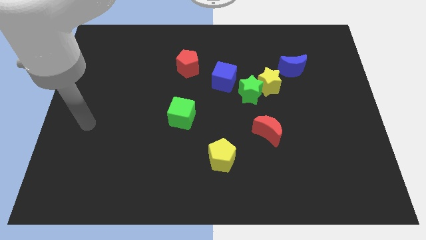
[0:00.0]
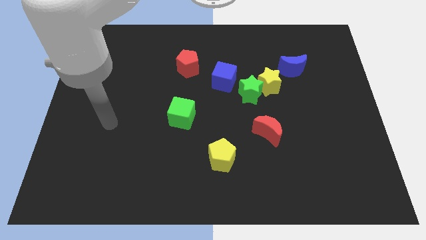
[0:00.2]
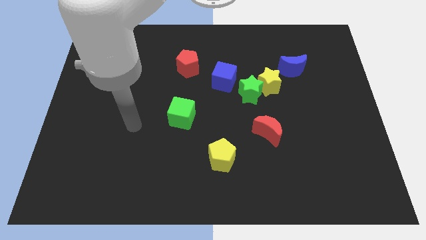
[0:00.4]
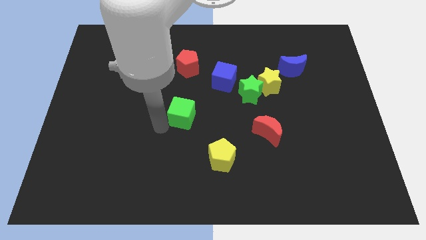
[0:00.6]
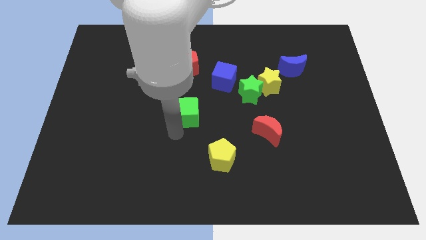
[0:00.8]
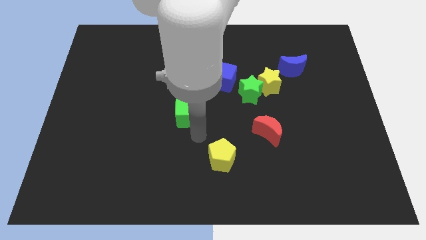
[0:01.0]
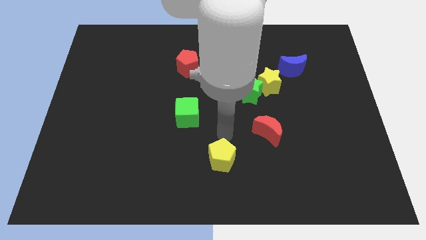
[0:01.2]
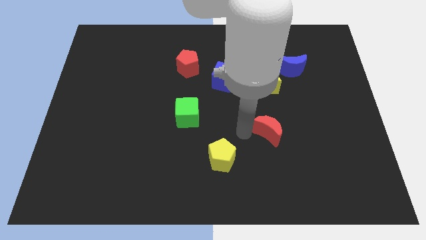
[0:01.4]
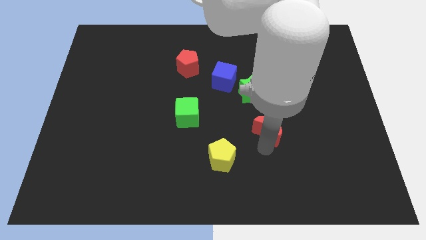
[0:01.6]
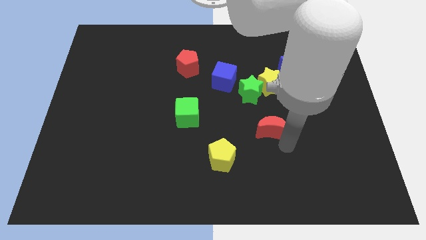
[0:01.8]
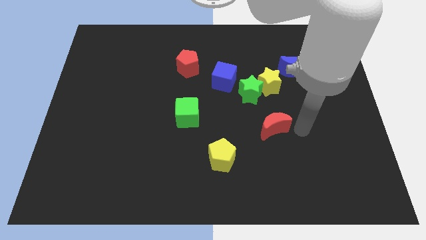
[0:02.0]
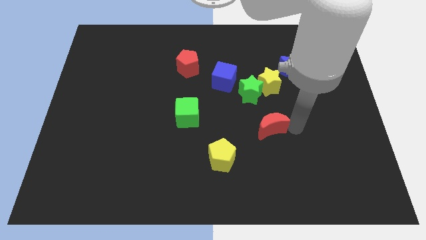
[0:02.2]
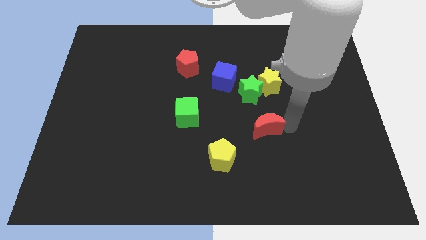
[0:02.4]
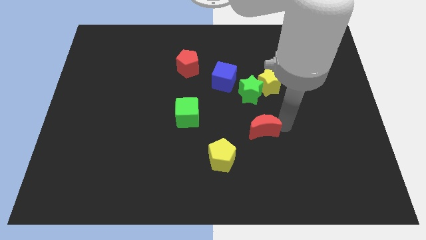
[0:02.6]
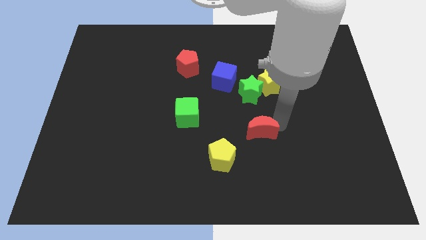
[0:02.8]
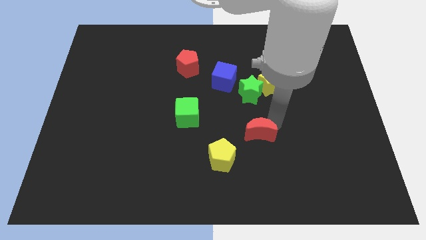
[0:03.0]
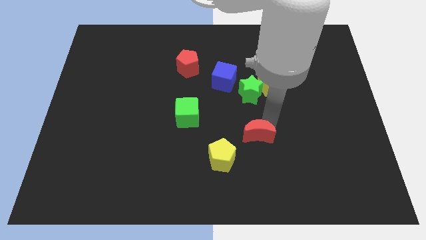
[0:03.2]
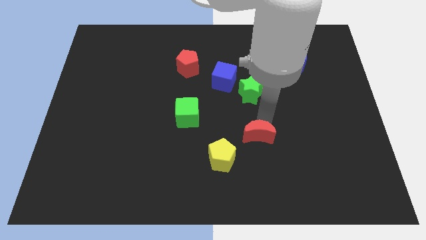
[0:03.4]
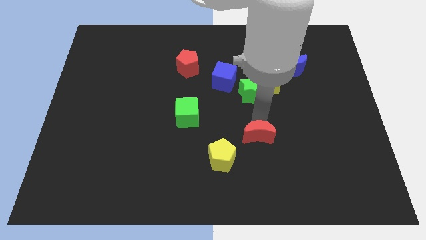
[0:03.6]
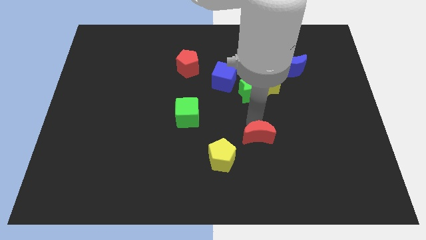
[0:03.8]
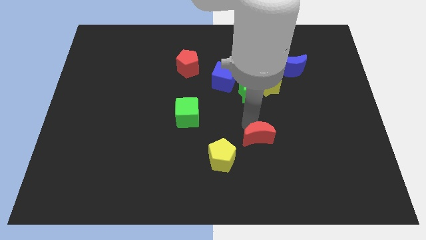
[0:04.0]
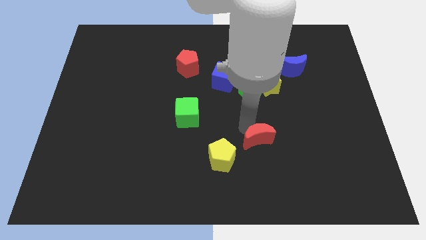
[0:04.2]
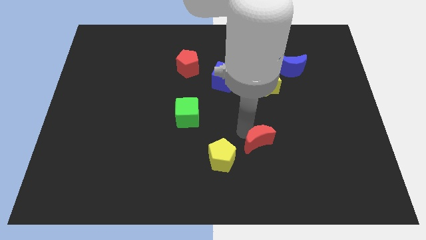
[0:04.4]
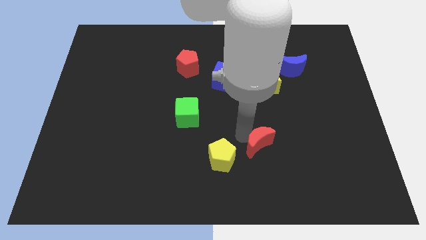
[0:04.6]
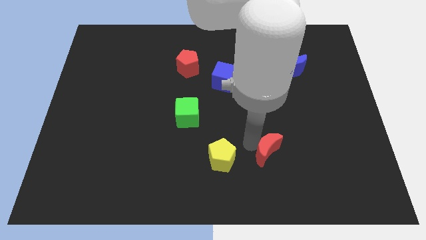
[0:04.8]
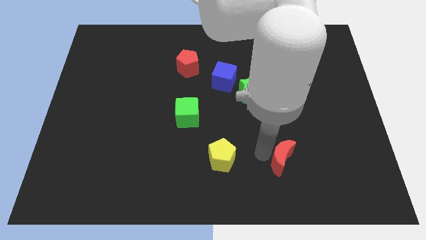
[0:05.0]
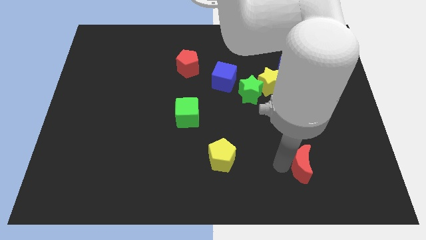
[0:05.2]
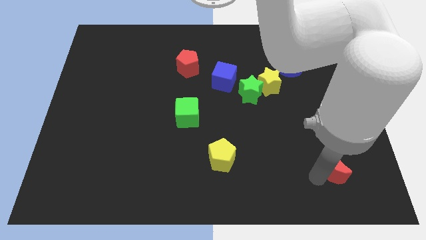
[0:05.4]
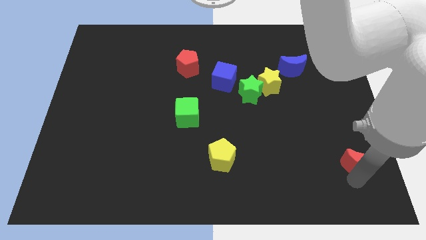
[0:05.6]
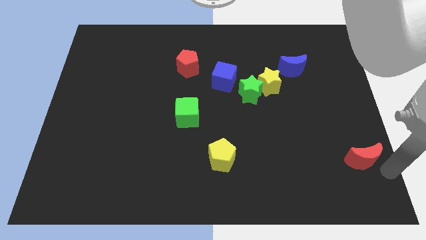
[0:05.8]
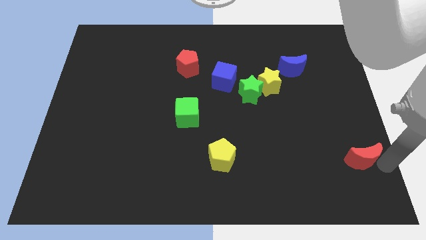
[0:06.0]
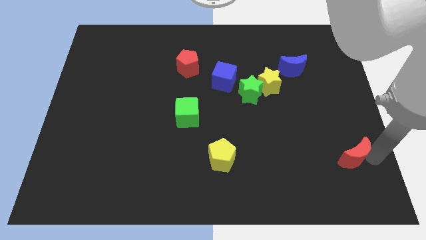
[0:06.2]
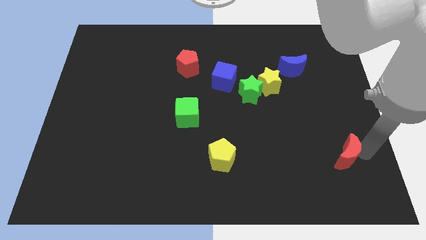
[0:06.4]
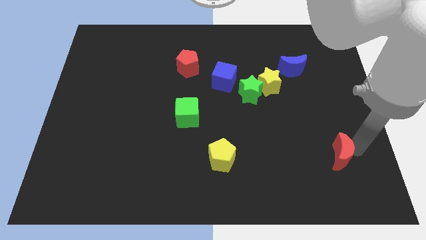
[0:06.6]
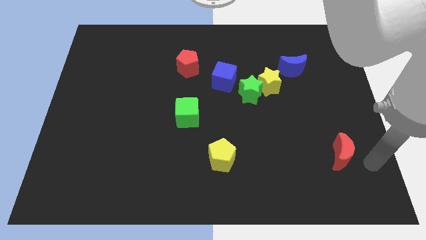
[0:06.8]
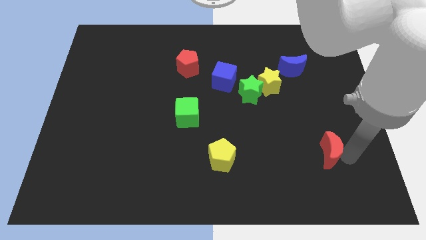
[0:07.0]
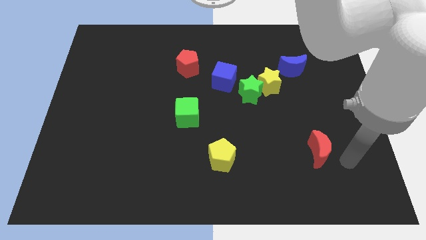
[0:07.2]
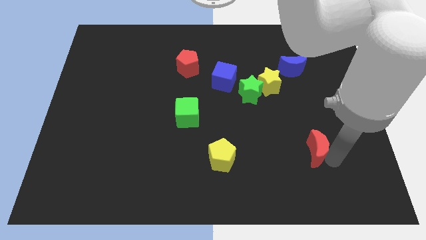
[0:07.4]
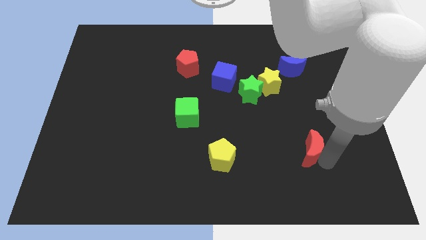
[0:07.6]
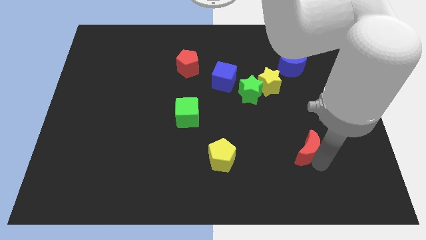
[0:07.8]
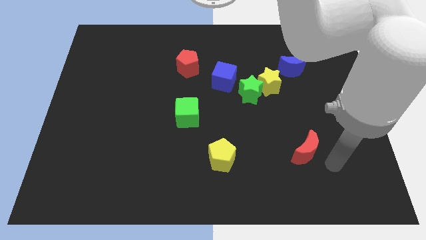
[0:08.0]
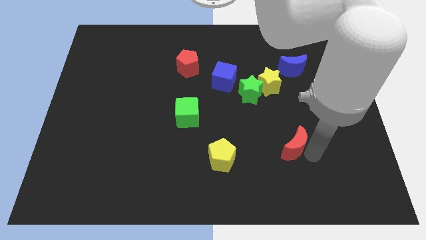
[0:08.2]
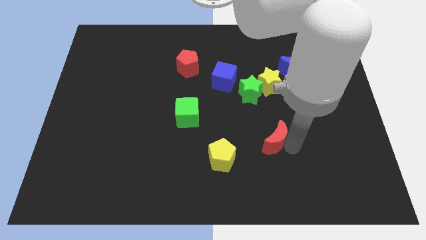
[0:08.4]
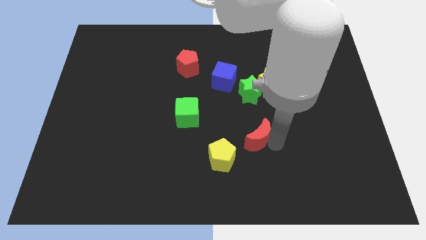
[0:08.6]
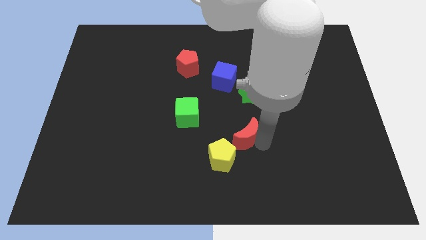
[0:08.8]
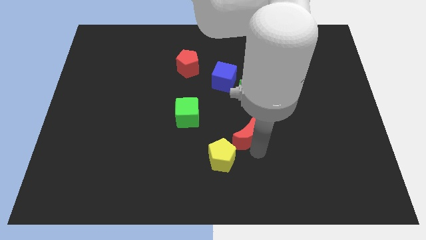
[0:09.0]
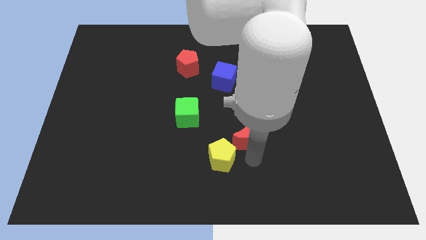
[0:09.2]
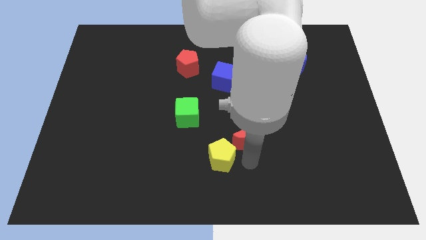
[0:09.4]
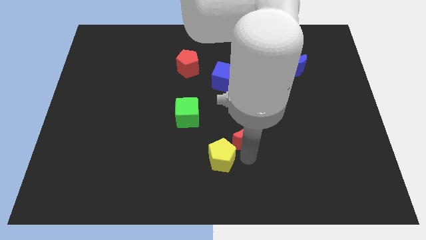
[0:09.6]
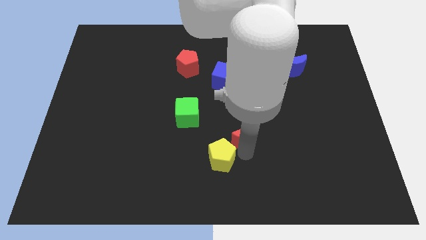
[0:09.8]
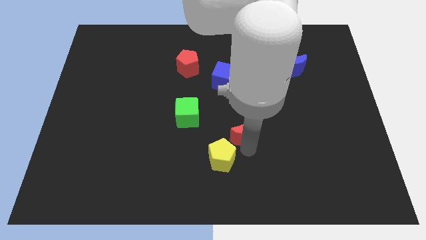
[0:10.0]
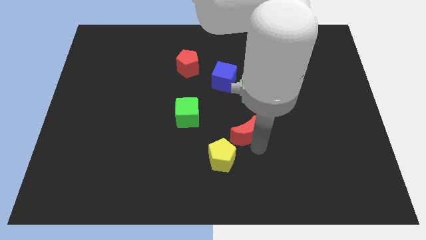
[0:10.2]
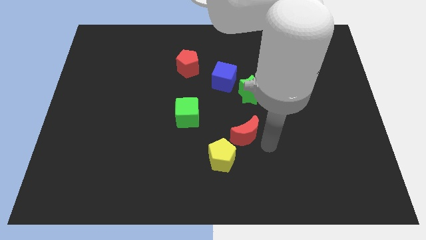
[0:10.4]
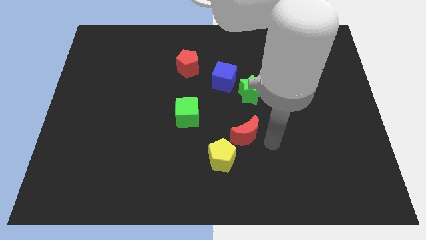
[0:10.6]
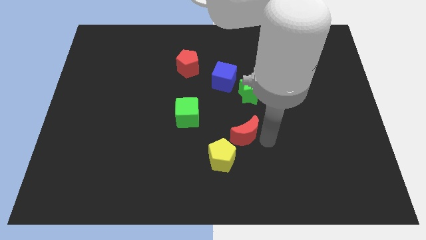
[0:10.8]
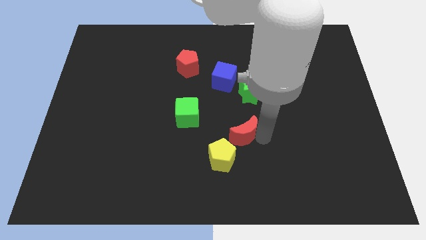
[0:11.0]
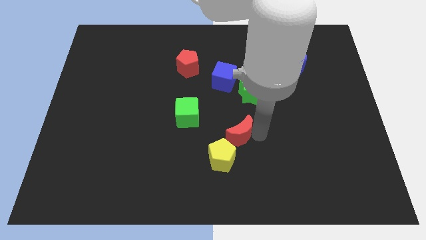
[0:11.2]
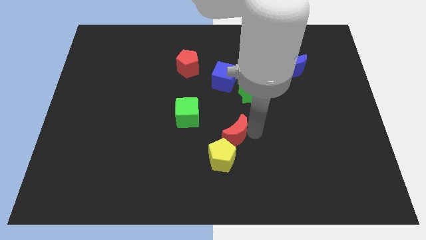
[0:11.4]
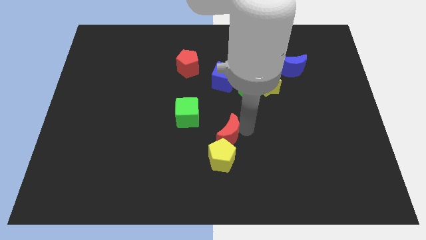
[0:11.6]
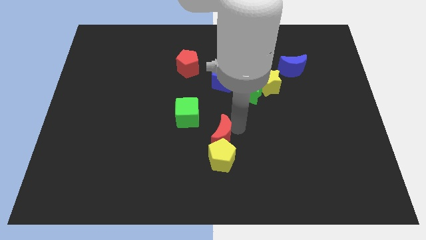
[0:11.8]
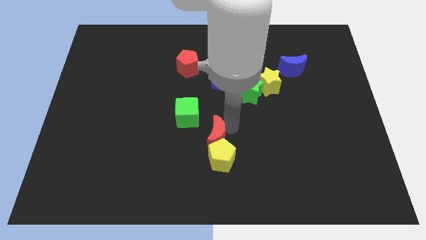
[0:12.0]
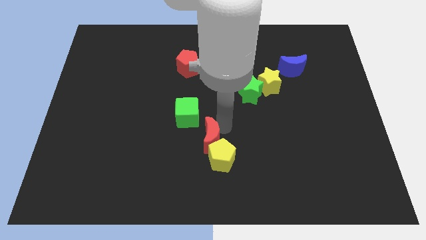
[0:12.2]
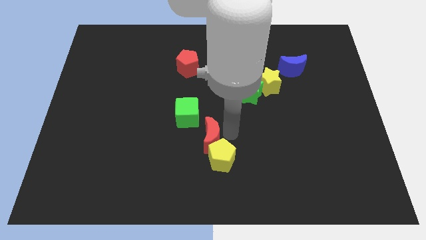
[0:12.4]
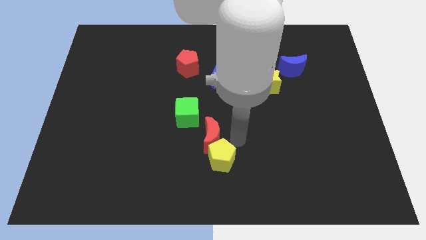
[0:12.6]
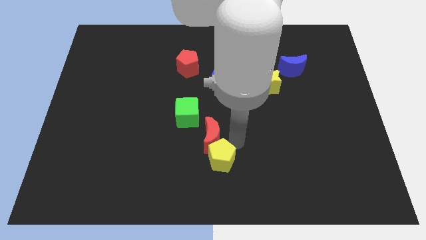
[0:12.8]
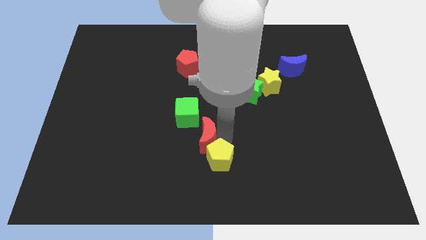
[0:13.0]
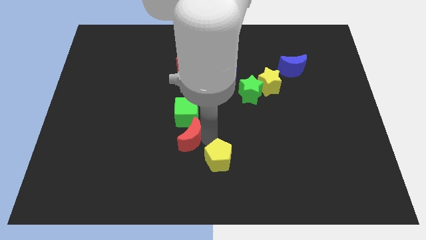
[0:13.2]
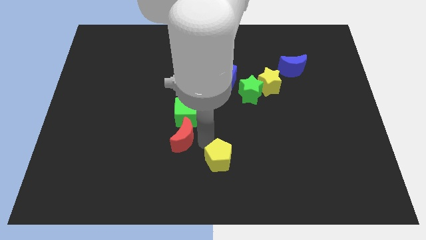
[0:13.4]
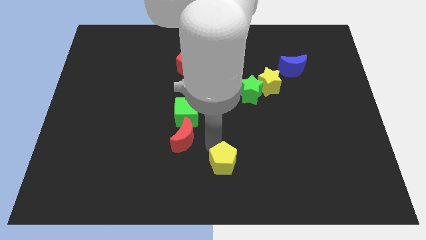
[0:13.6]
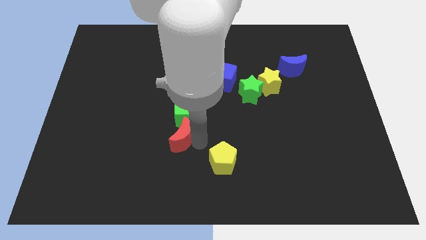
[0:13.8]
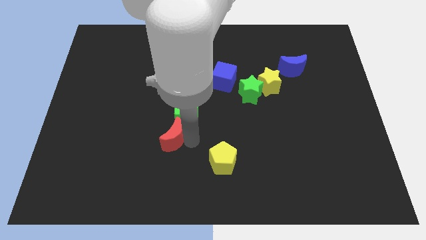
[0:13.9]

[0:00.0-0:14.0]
slide the red moon left

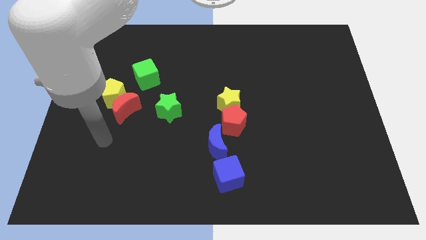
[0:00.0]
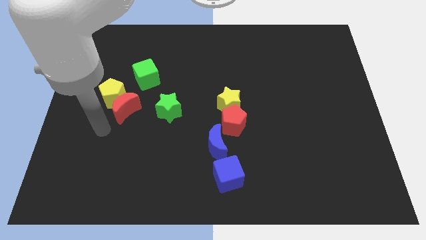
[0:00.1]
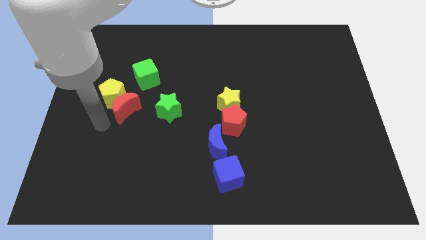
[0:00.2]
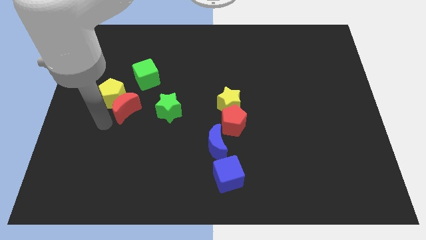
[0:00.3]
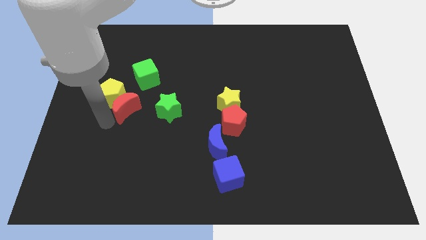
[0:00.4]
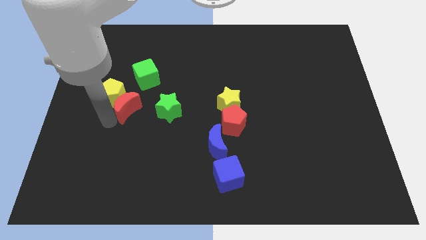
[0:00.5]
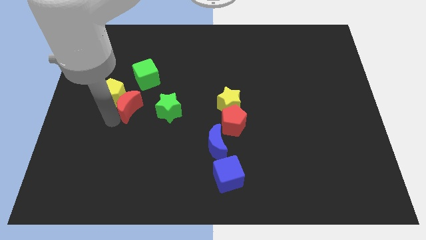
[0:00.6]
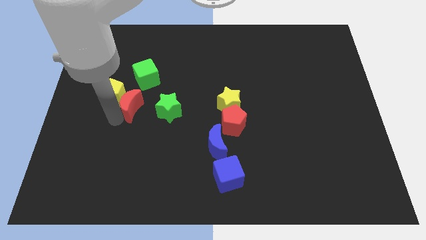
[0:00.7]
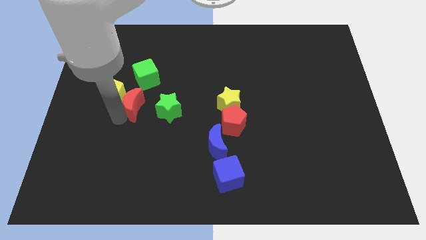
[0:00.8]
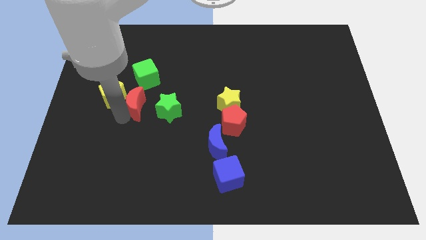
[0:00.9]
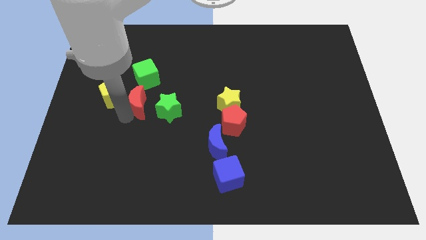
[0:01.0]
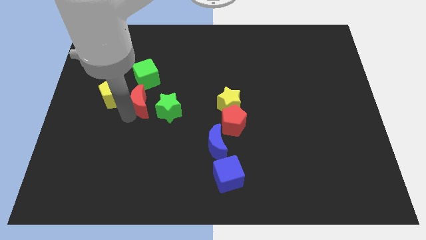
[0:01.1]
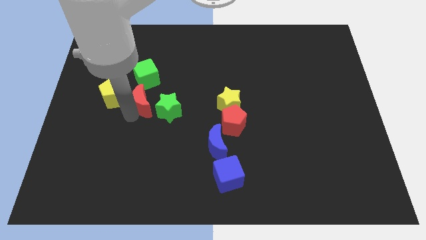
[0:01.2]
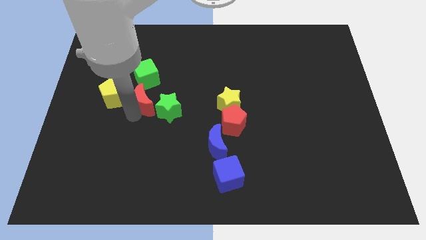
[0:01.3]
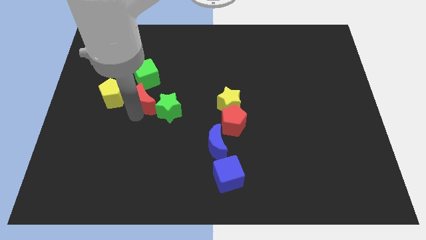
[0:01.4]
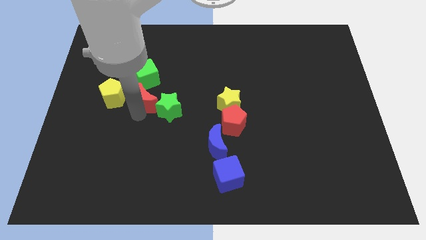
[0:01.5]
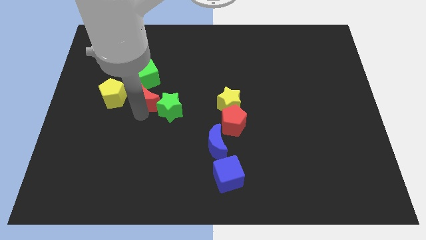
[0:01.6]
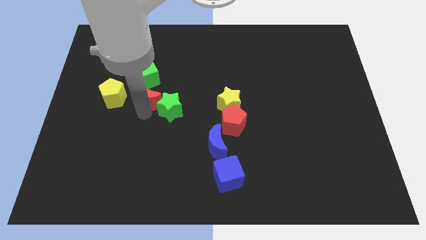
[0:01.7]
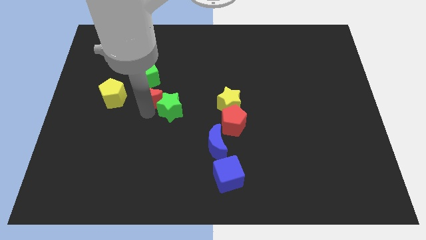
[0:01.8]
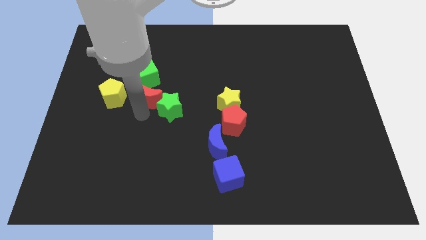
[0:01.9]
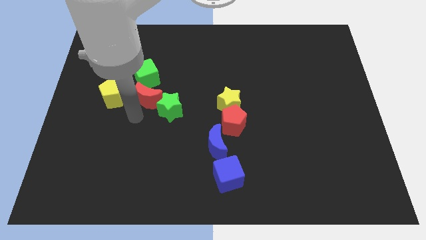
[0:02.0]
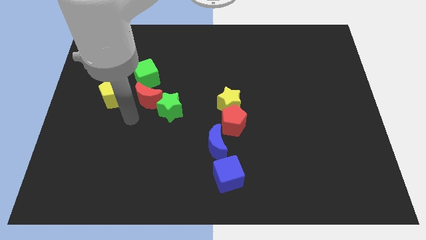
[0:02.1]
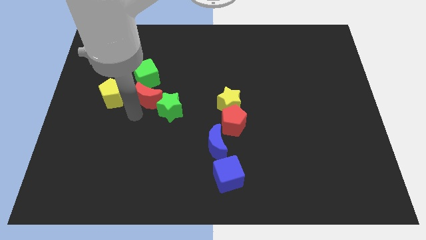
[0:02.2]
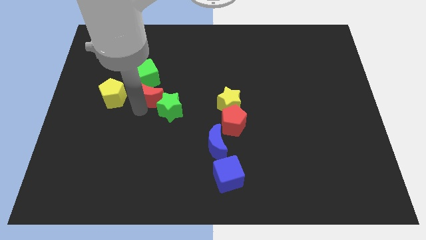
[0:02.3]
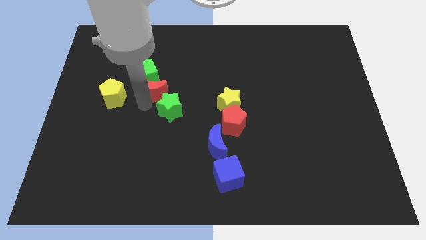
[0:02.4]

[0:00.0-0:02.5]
slightly move the red moon upwards and then to the right
